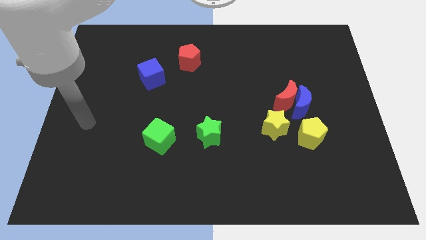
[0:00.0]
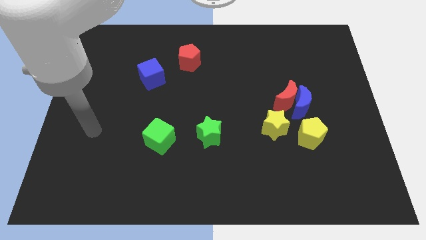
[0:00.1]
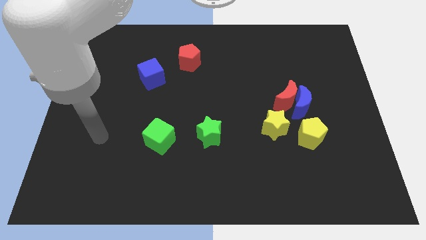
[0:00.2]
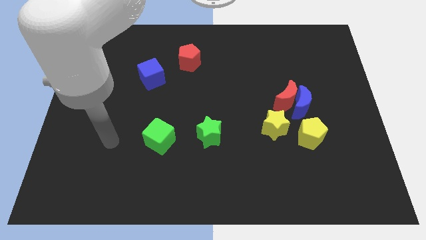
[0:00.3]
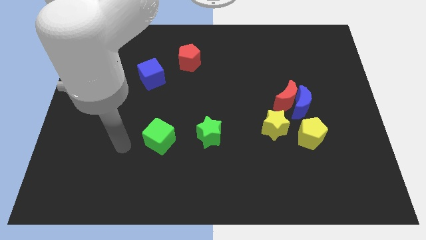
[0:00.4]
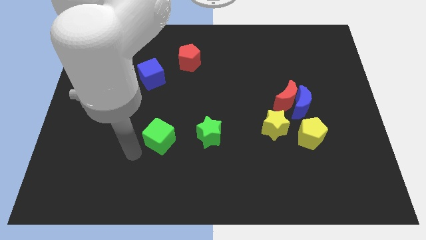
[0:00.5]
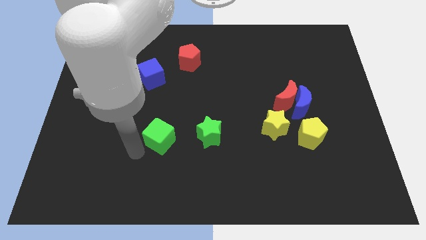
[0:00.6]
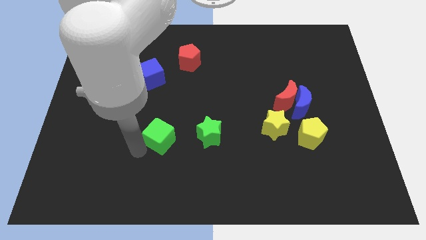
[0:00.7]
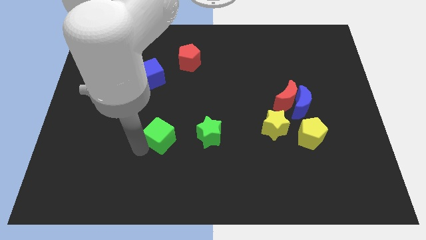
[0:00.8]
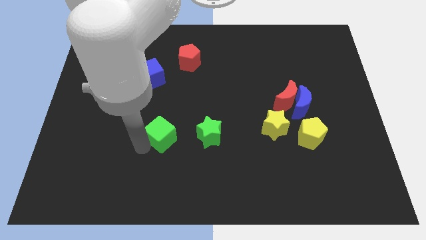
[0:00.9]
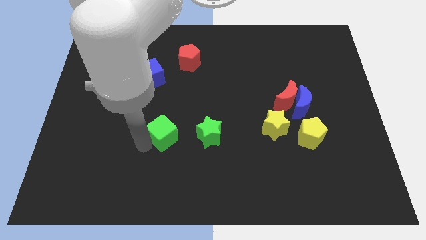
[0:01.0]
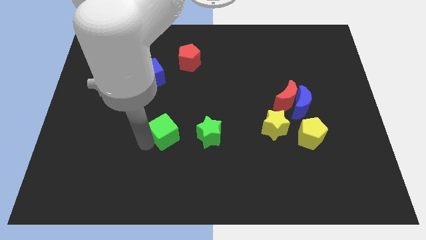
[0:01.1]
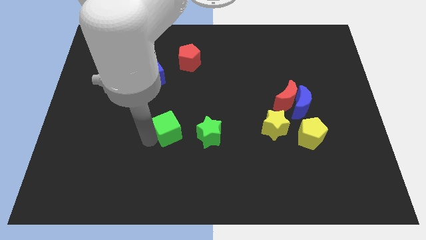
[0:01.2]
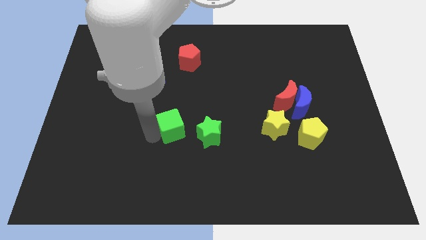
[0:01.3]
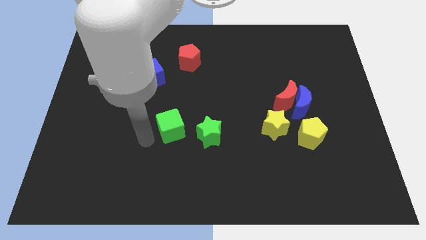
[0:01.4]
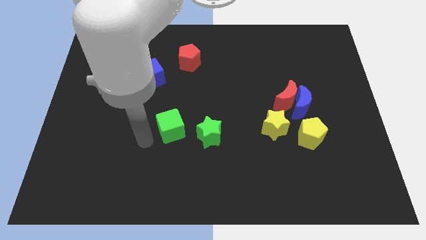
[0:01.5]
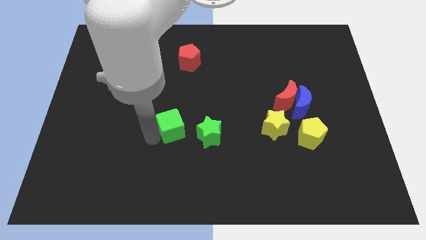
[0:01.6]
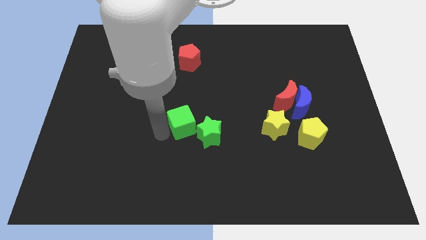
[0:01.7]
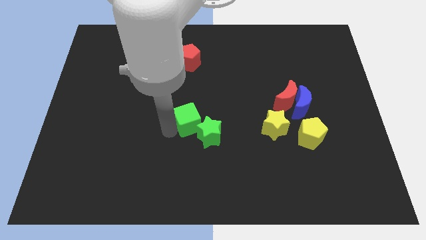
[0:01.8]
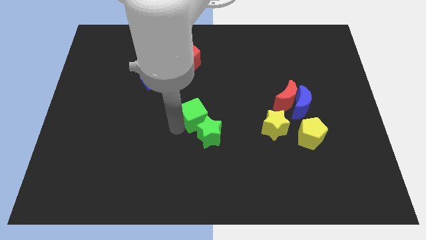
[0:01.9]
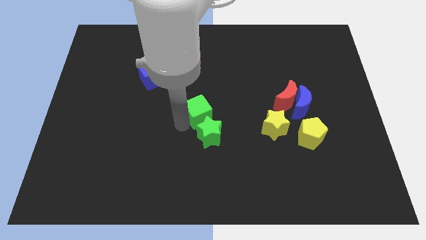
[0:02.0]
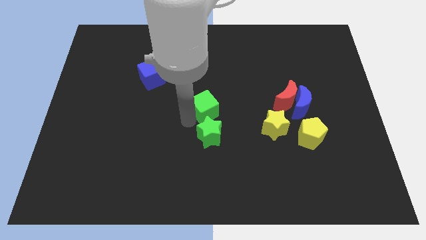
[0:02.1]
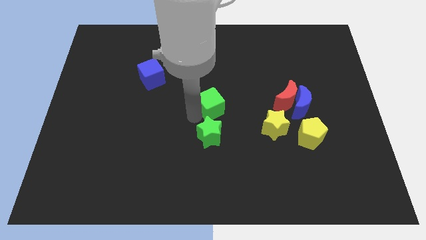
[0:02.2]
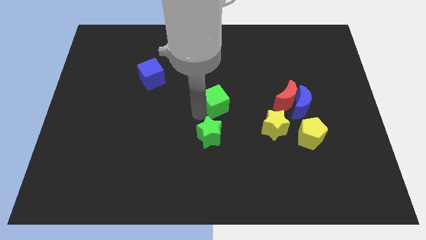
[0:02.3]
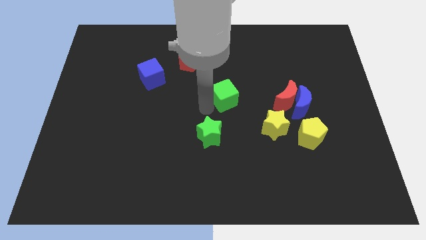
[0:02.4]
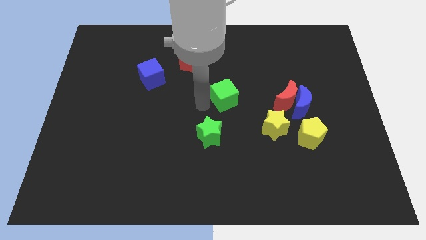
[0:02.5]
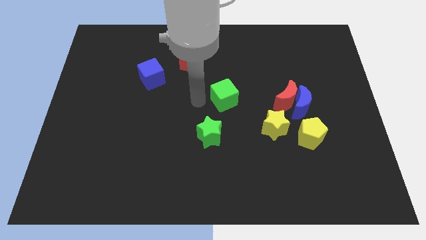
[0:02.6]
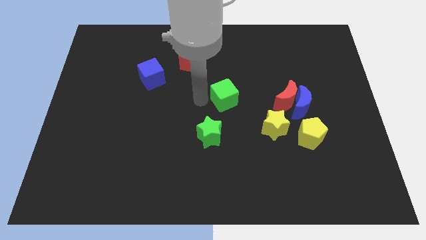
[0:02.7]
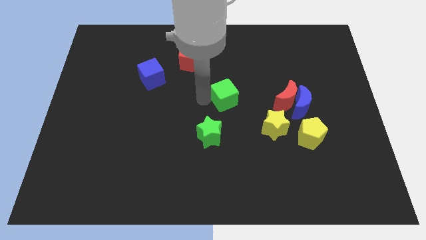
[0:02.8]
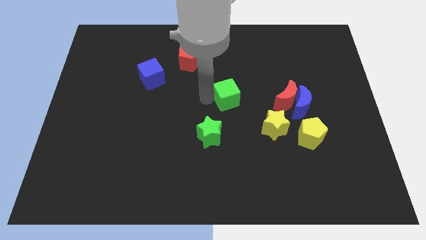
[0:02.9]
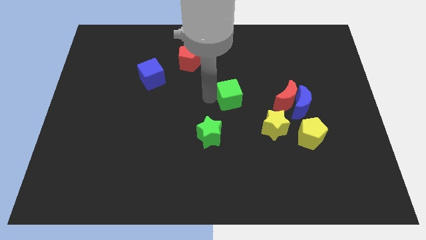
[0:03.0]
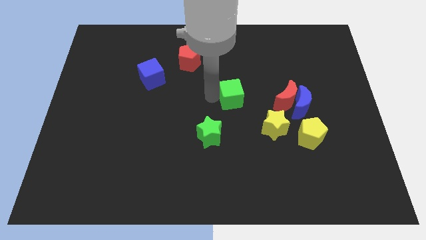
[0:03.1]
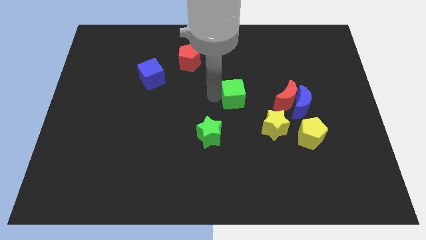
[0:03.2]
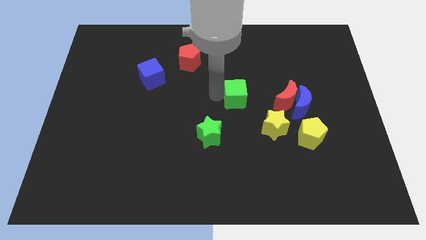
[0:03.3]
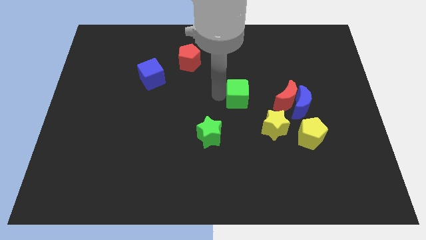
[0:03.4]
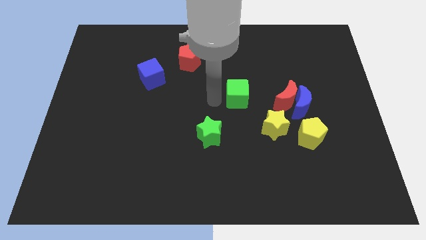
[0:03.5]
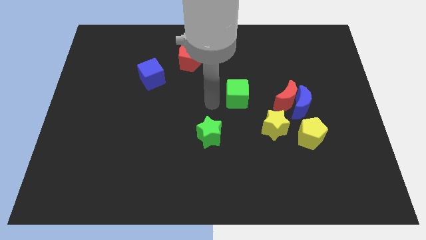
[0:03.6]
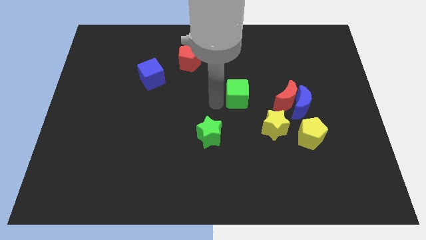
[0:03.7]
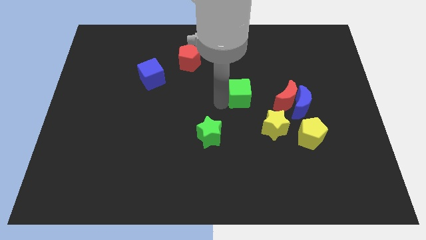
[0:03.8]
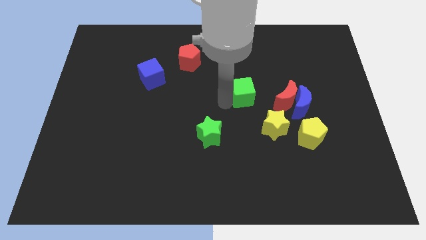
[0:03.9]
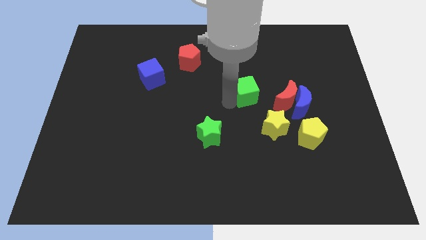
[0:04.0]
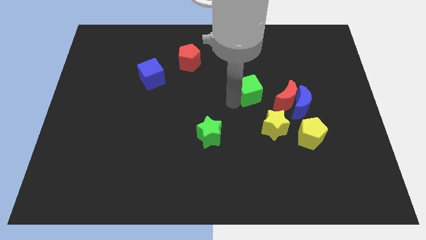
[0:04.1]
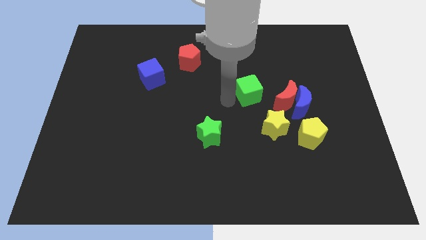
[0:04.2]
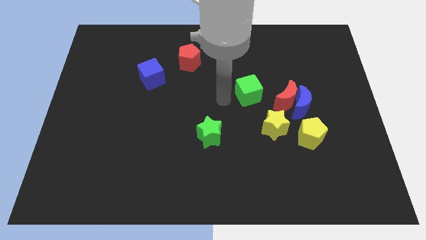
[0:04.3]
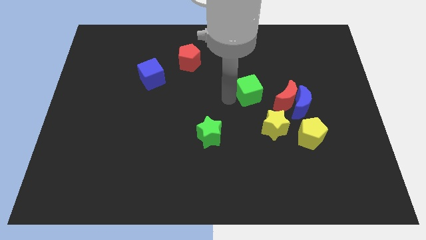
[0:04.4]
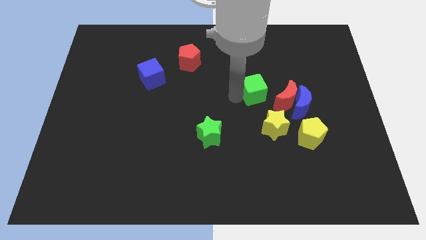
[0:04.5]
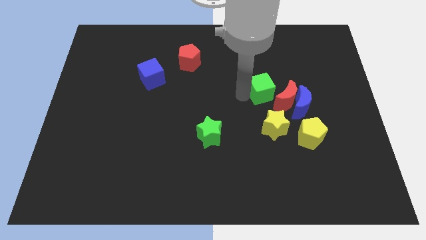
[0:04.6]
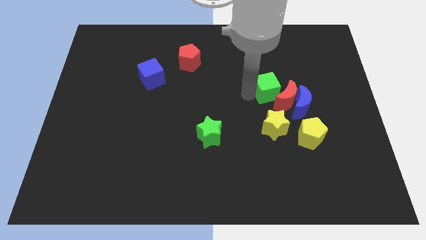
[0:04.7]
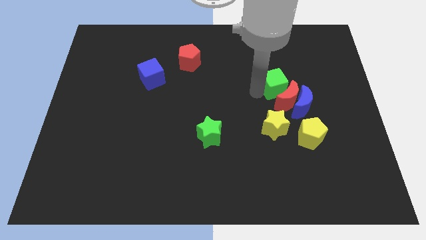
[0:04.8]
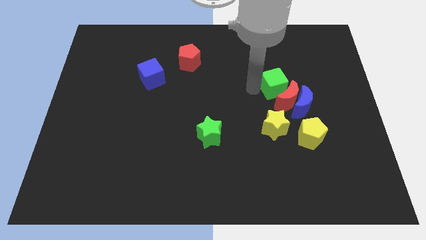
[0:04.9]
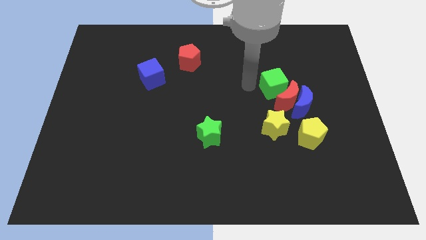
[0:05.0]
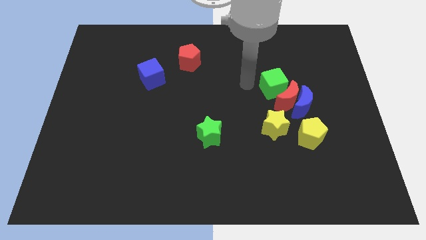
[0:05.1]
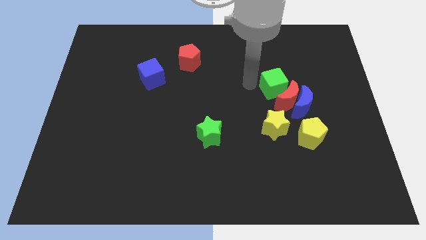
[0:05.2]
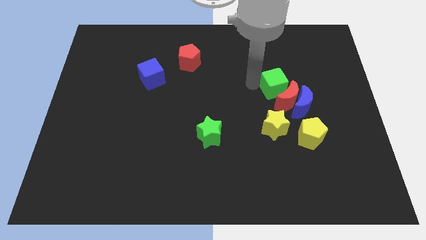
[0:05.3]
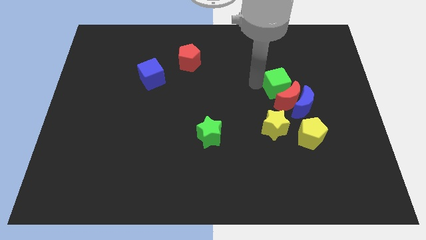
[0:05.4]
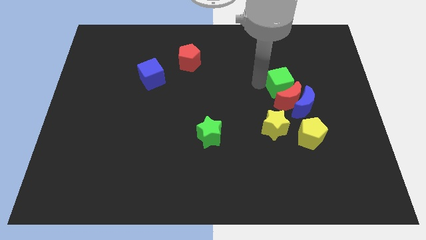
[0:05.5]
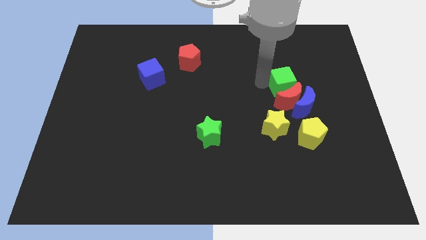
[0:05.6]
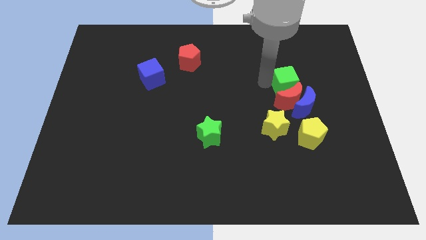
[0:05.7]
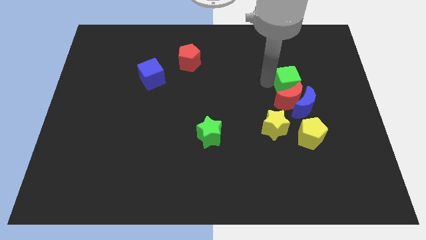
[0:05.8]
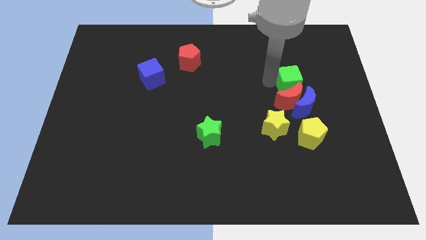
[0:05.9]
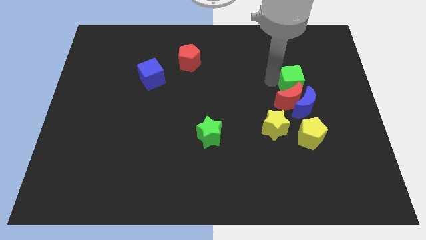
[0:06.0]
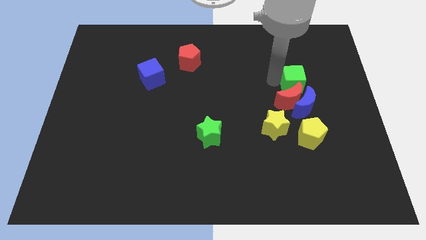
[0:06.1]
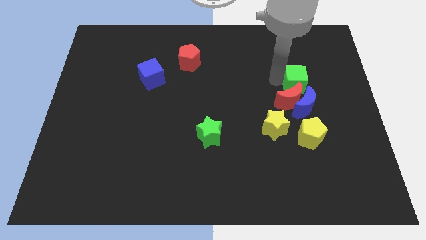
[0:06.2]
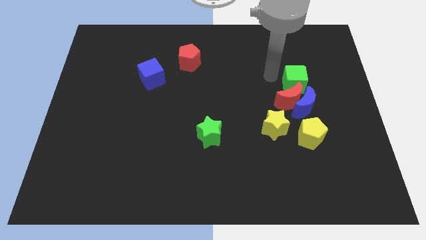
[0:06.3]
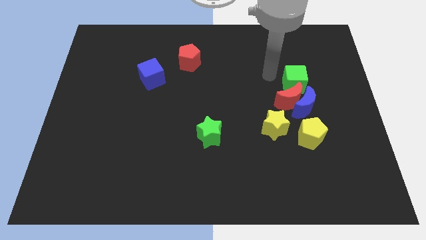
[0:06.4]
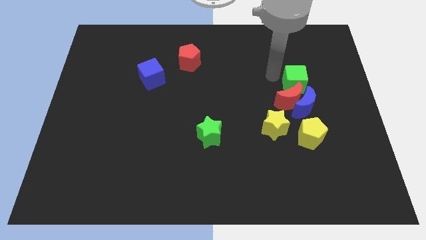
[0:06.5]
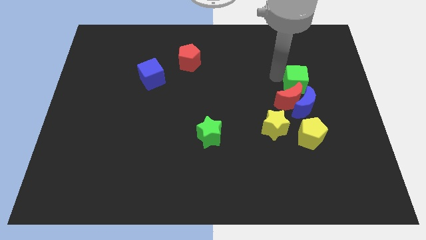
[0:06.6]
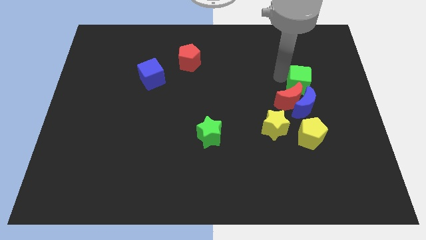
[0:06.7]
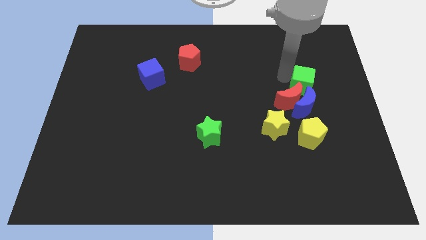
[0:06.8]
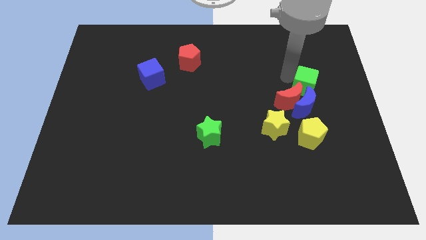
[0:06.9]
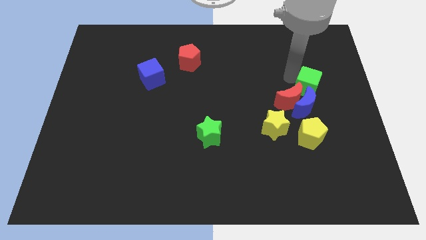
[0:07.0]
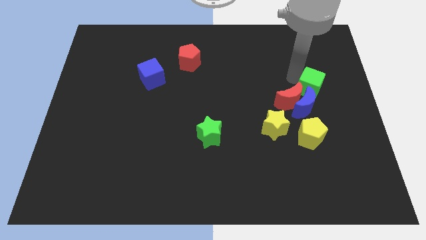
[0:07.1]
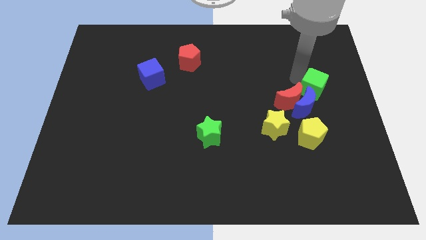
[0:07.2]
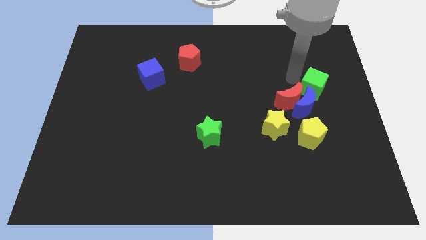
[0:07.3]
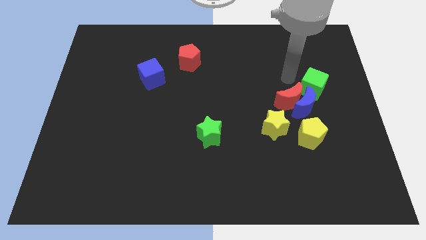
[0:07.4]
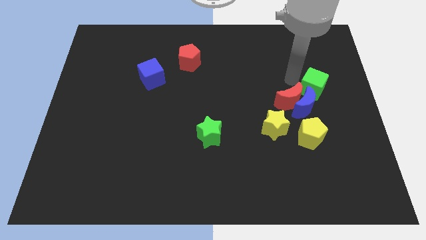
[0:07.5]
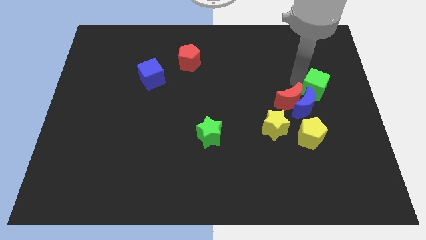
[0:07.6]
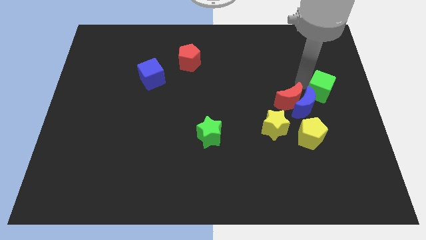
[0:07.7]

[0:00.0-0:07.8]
move the green cube to the right side of the board
